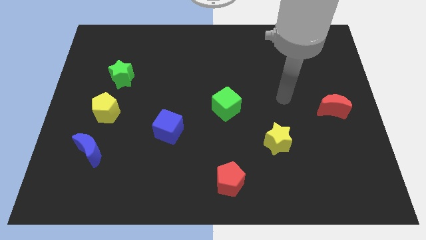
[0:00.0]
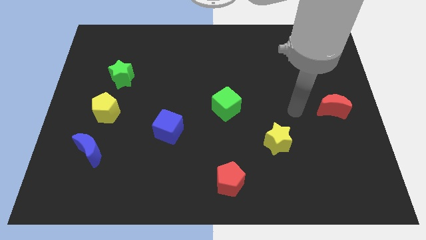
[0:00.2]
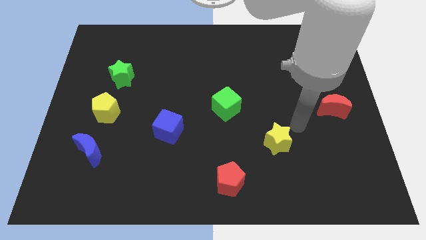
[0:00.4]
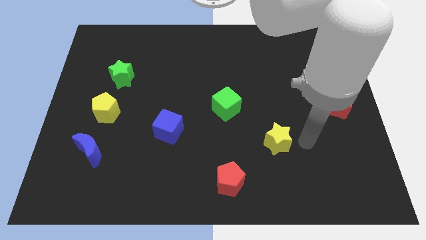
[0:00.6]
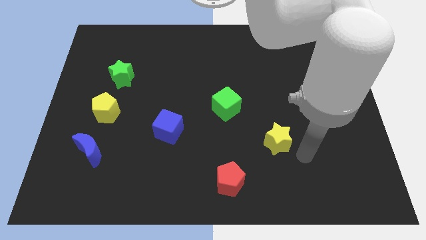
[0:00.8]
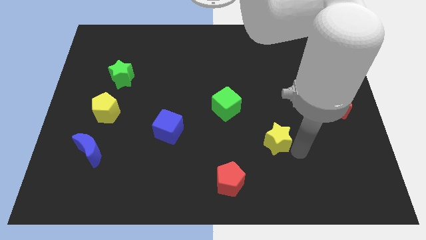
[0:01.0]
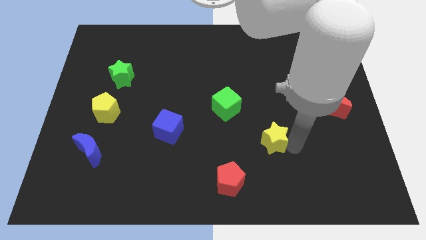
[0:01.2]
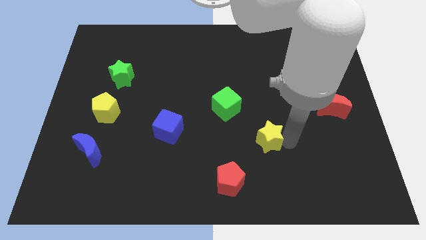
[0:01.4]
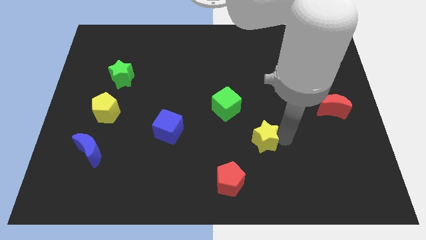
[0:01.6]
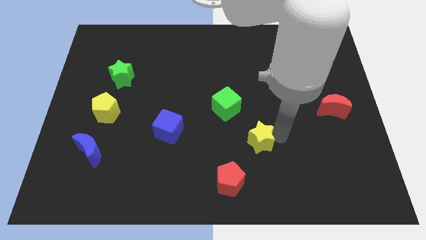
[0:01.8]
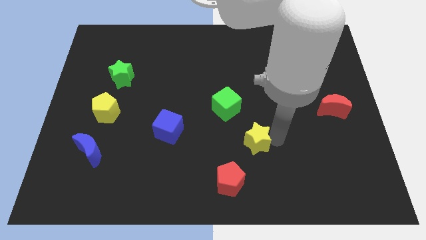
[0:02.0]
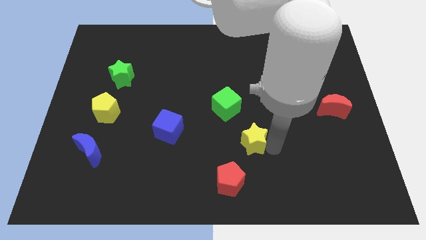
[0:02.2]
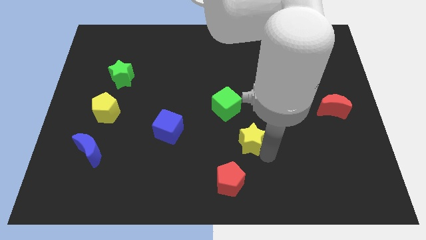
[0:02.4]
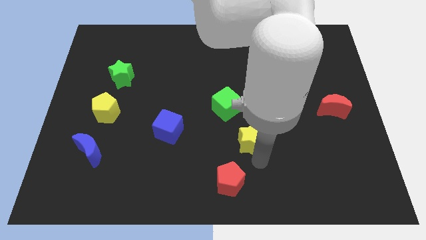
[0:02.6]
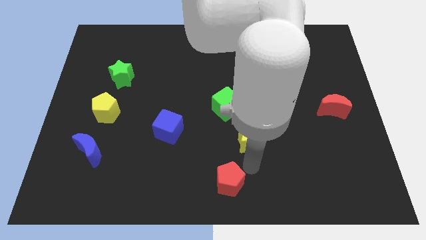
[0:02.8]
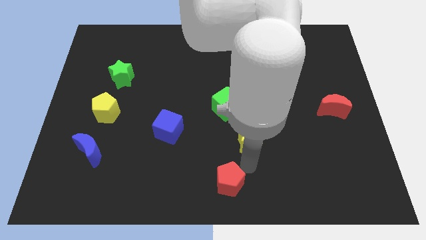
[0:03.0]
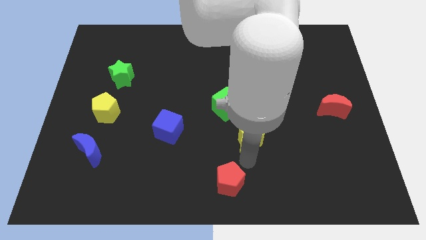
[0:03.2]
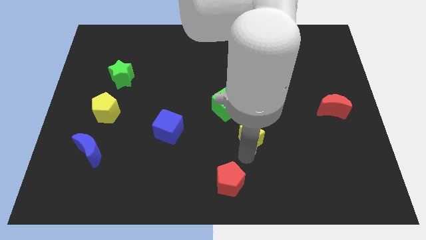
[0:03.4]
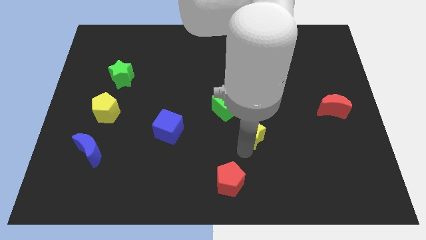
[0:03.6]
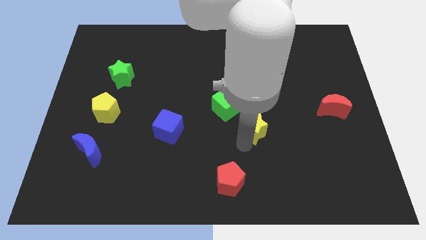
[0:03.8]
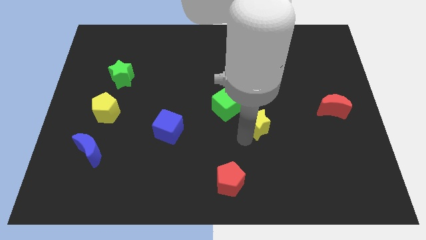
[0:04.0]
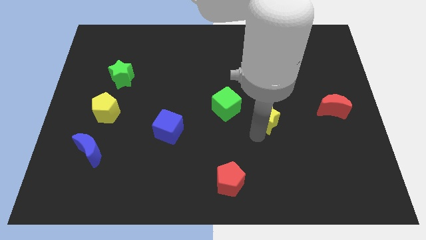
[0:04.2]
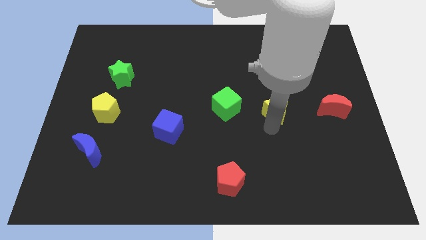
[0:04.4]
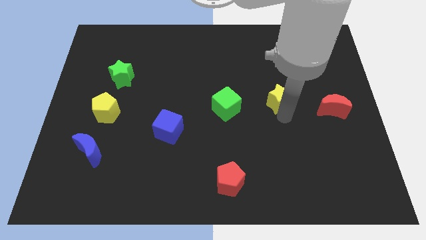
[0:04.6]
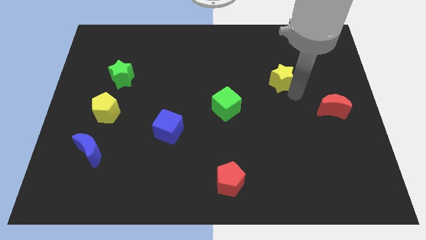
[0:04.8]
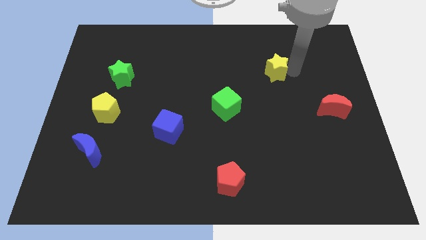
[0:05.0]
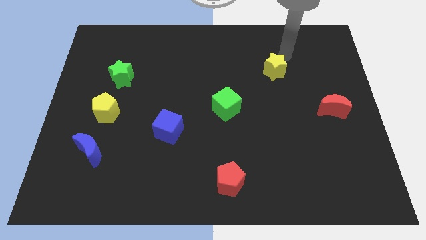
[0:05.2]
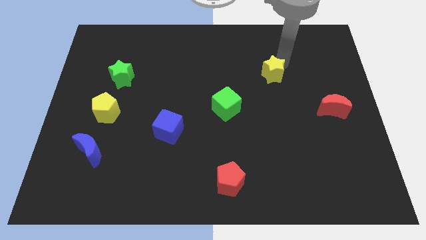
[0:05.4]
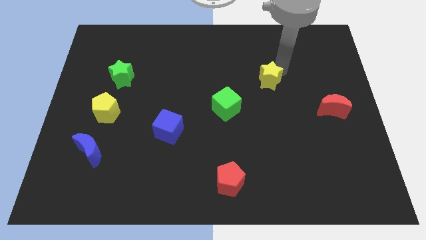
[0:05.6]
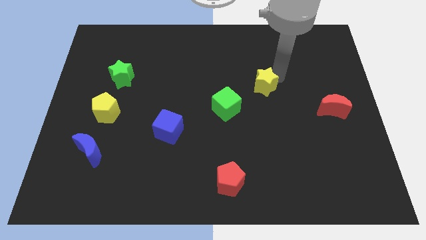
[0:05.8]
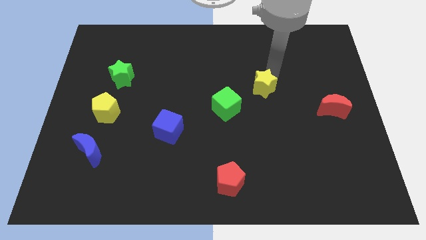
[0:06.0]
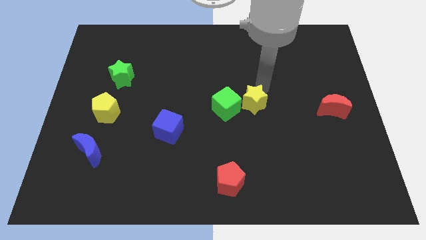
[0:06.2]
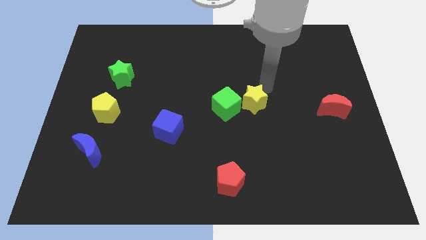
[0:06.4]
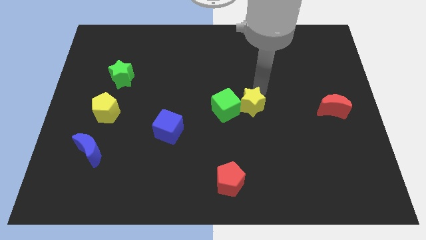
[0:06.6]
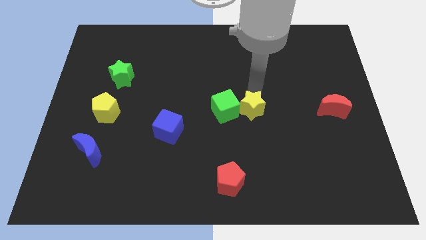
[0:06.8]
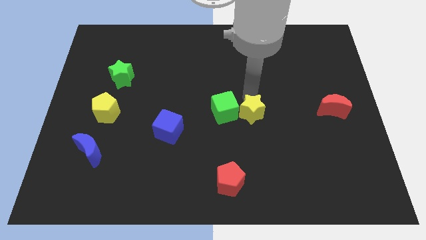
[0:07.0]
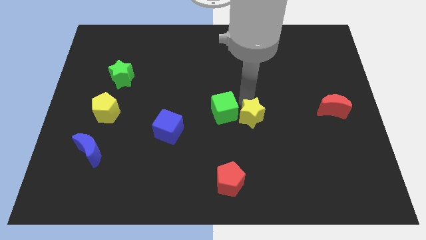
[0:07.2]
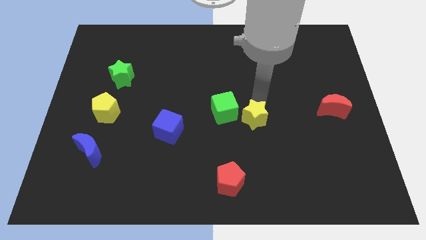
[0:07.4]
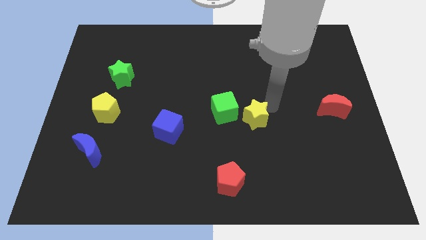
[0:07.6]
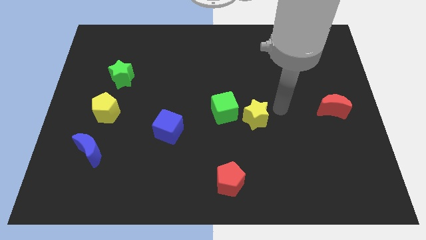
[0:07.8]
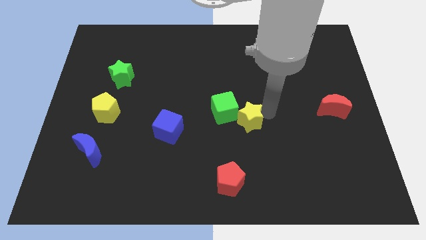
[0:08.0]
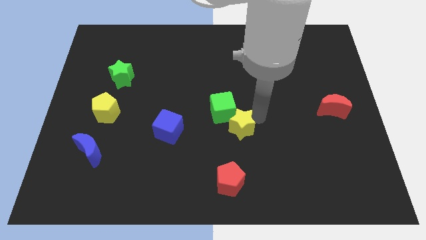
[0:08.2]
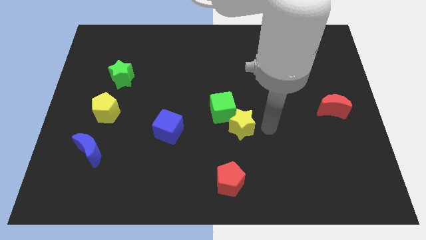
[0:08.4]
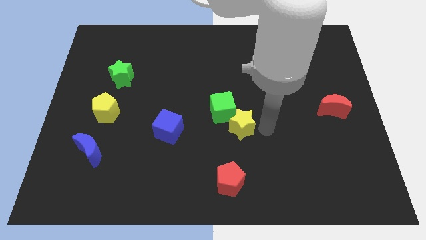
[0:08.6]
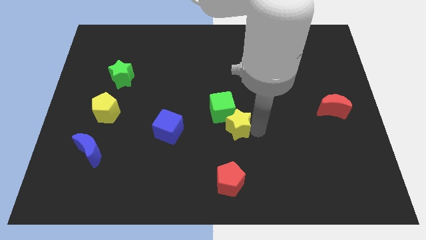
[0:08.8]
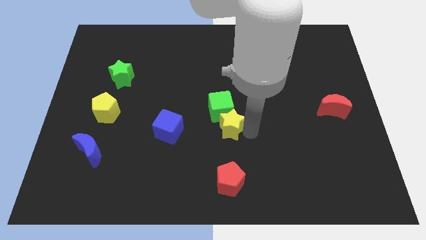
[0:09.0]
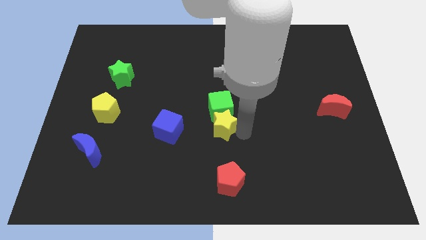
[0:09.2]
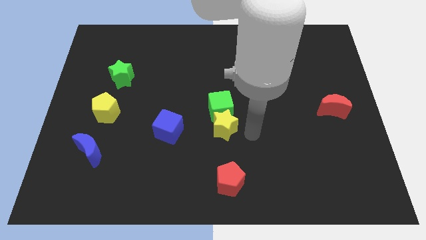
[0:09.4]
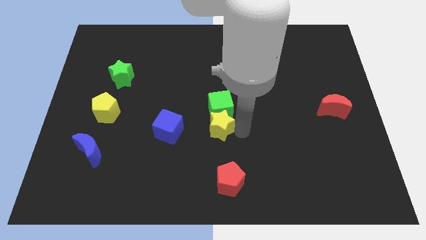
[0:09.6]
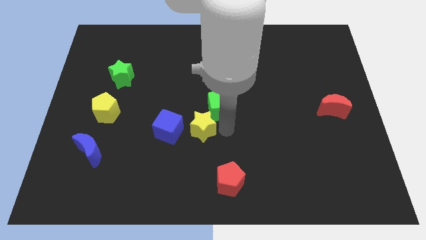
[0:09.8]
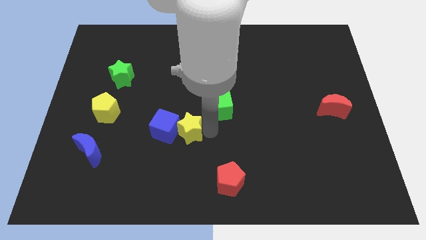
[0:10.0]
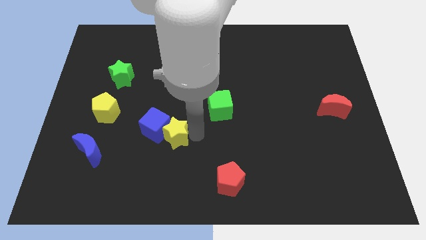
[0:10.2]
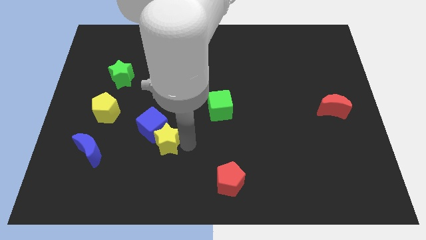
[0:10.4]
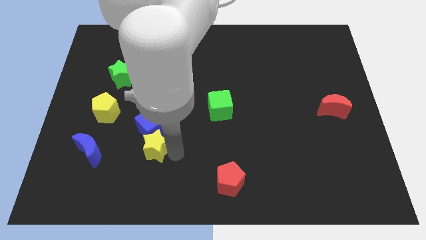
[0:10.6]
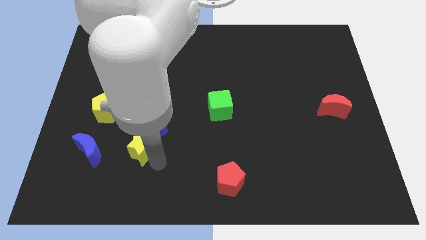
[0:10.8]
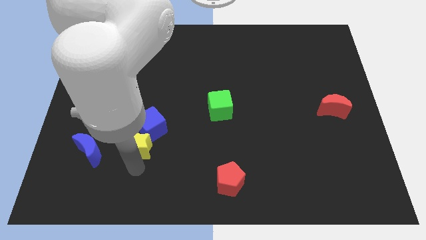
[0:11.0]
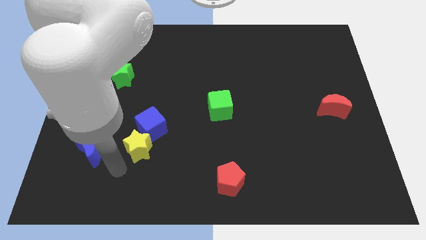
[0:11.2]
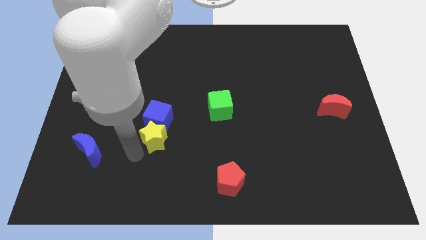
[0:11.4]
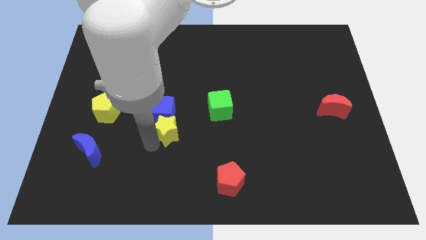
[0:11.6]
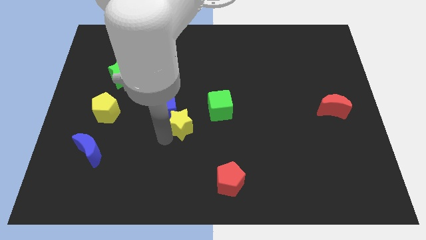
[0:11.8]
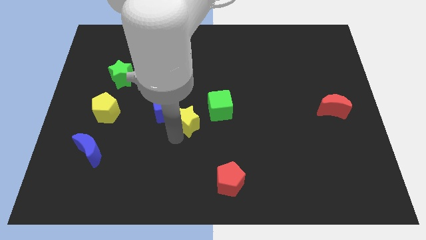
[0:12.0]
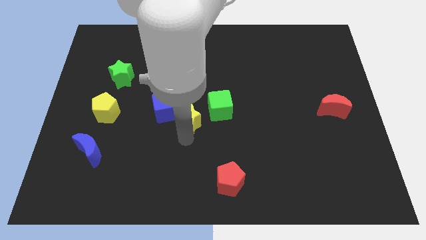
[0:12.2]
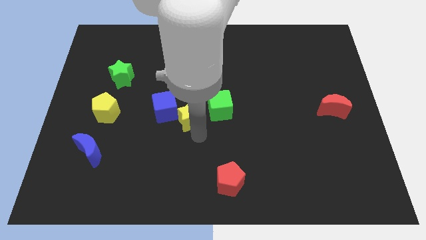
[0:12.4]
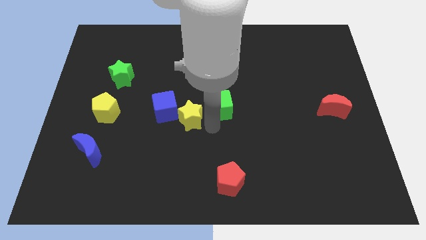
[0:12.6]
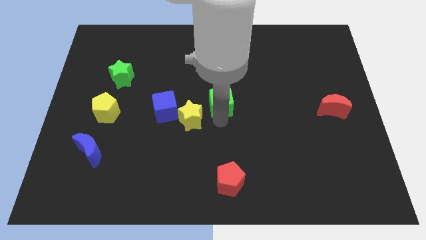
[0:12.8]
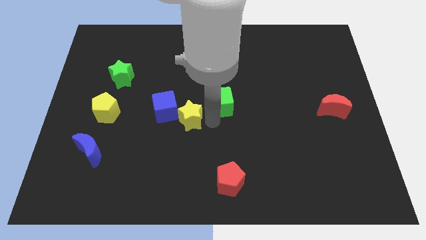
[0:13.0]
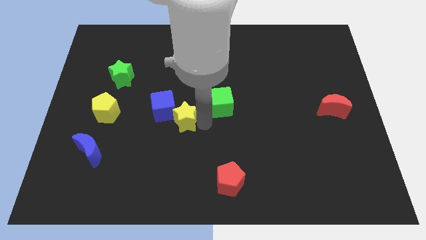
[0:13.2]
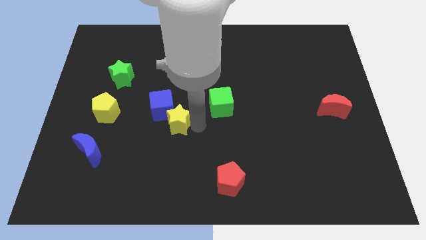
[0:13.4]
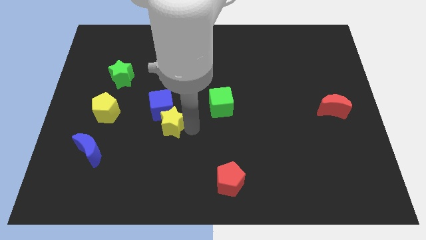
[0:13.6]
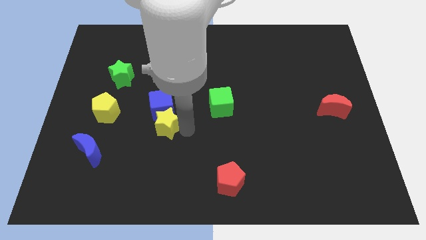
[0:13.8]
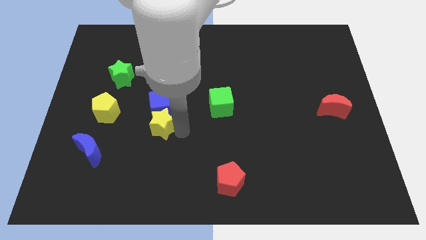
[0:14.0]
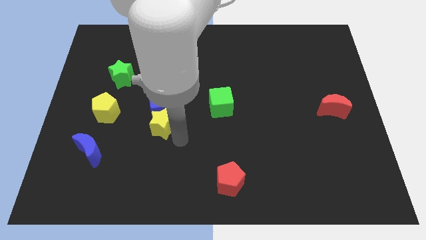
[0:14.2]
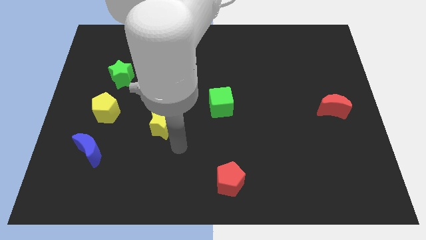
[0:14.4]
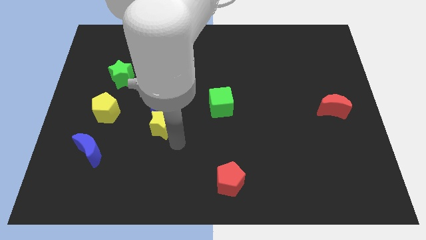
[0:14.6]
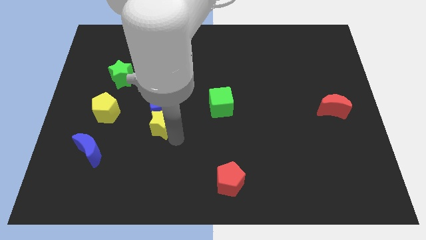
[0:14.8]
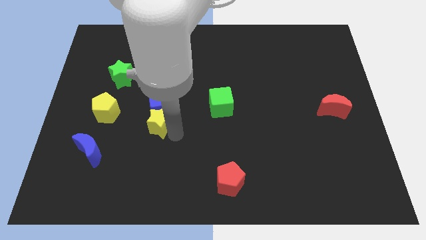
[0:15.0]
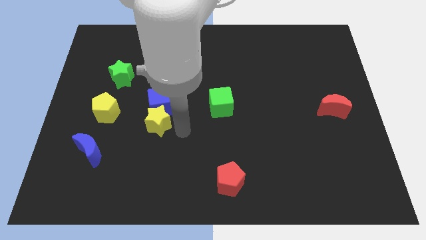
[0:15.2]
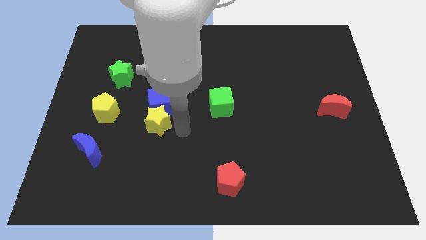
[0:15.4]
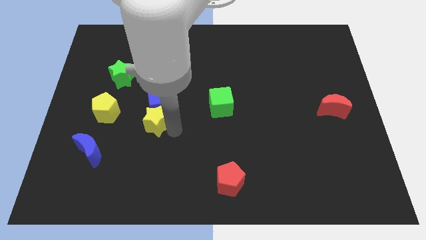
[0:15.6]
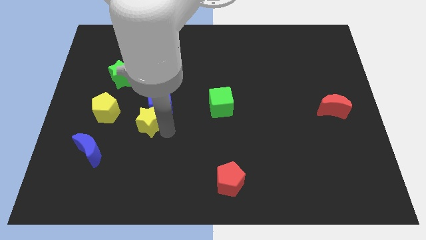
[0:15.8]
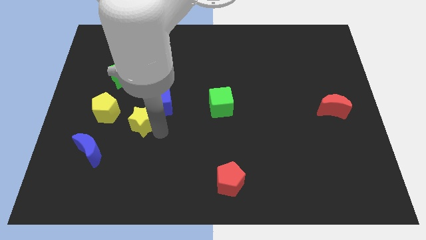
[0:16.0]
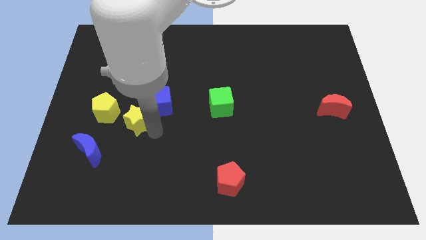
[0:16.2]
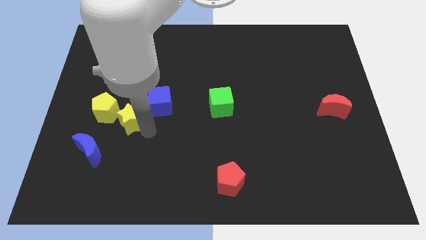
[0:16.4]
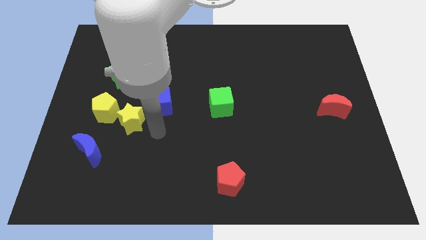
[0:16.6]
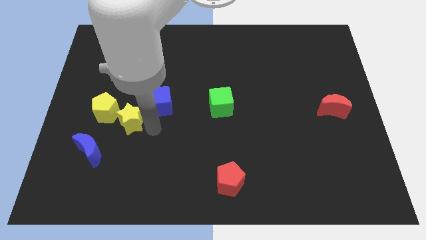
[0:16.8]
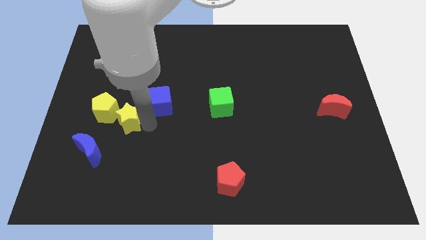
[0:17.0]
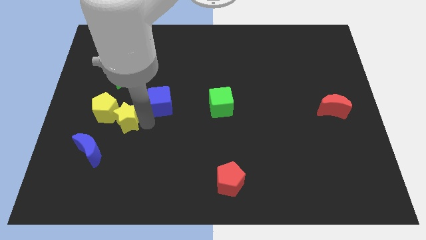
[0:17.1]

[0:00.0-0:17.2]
push the yellow star towards the yellow pentagon
